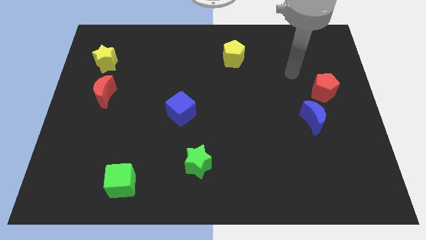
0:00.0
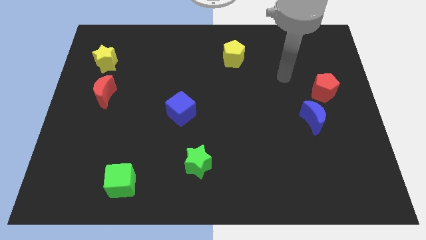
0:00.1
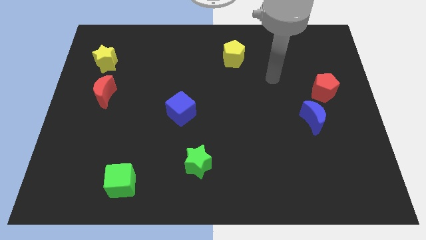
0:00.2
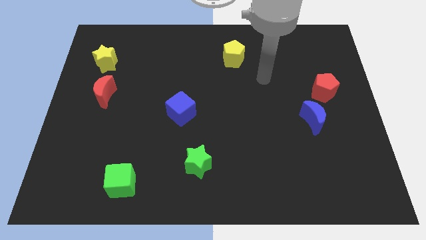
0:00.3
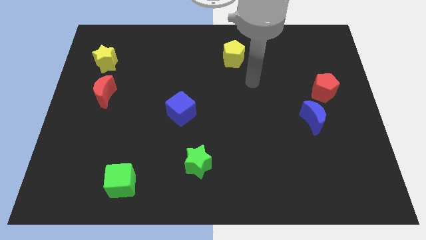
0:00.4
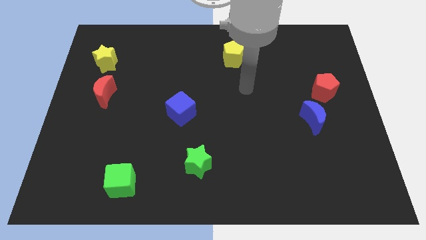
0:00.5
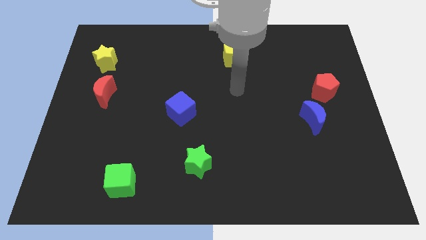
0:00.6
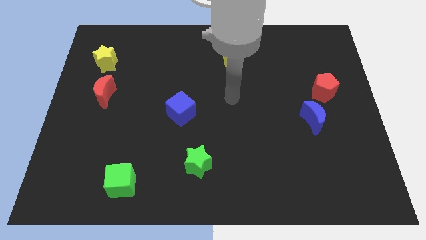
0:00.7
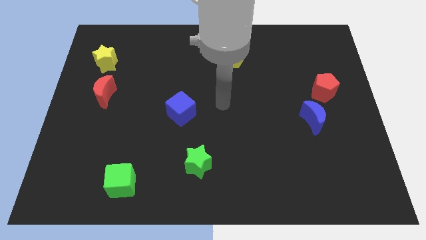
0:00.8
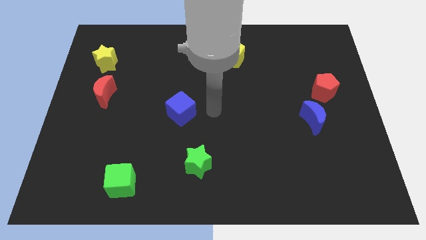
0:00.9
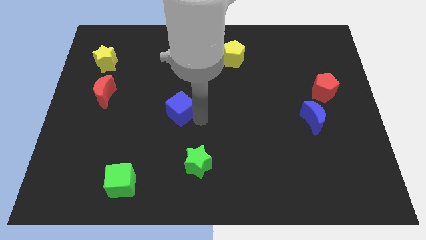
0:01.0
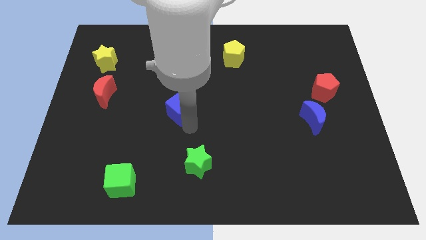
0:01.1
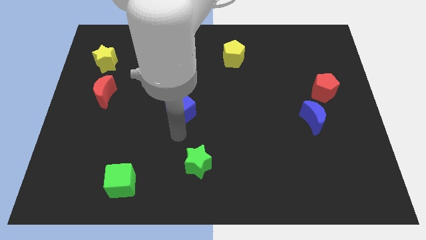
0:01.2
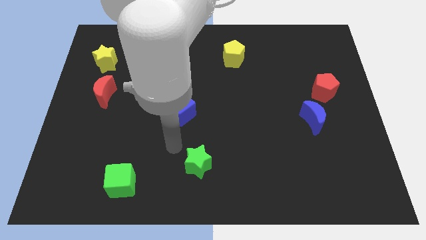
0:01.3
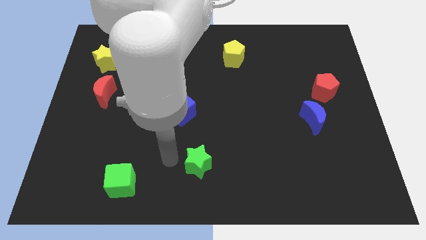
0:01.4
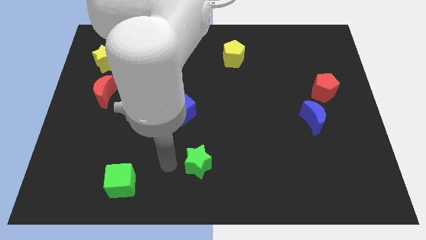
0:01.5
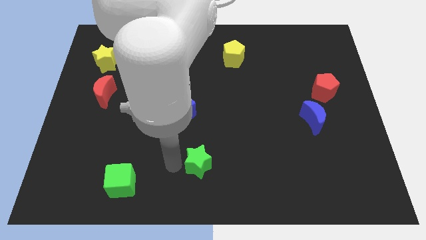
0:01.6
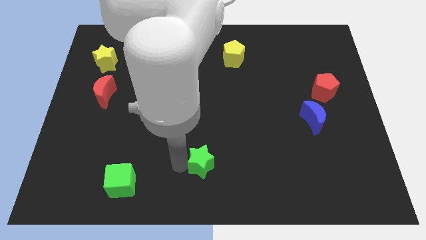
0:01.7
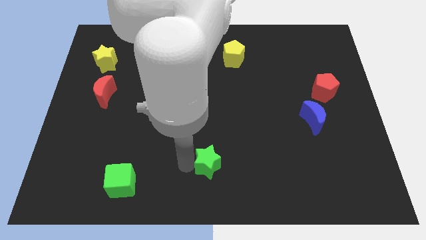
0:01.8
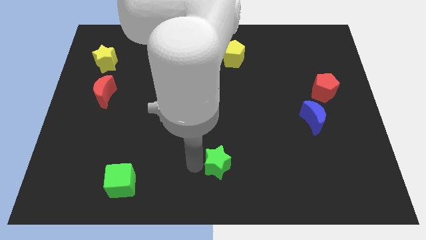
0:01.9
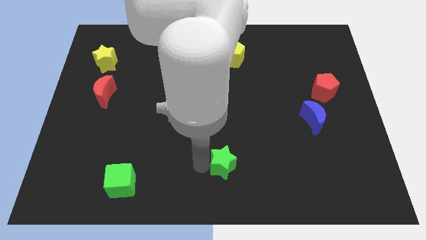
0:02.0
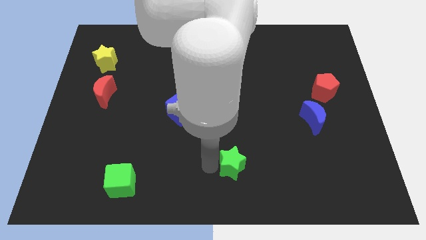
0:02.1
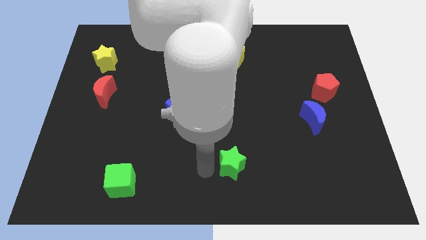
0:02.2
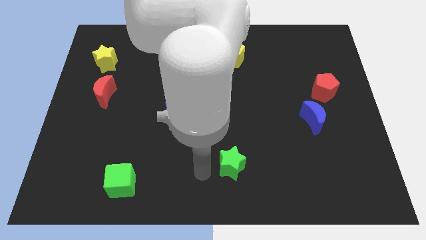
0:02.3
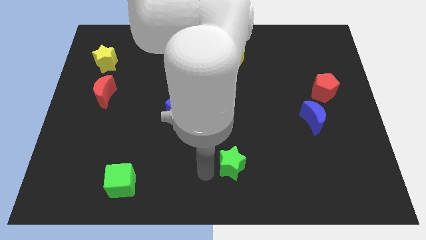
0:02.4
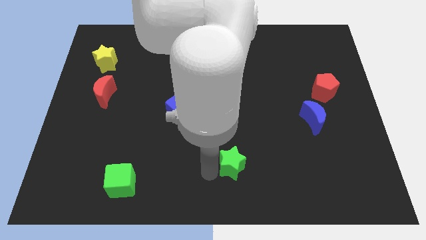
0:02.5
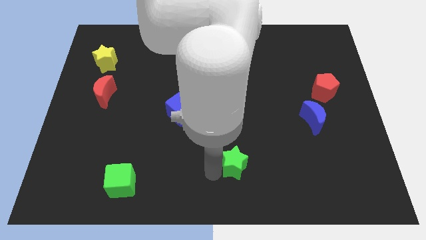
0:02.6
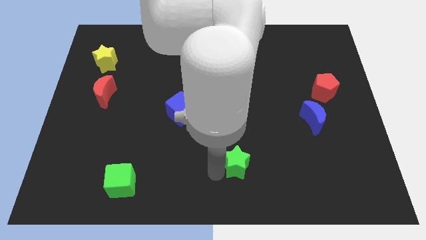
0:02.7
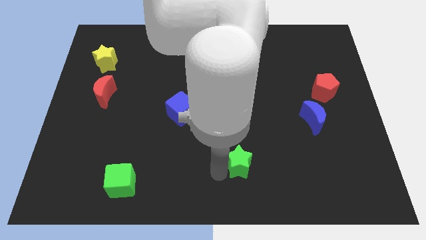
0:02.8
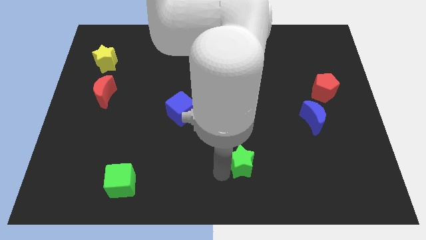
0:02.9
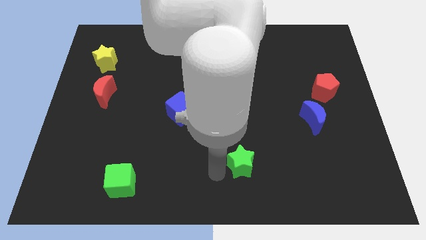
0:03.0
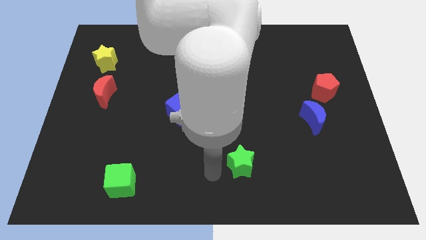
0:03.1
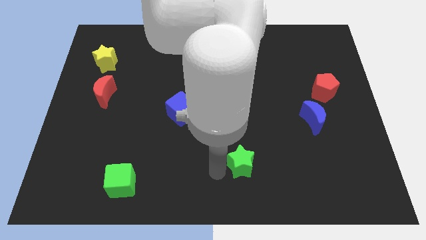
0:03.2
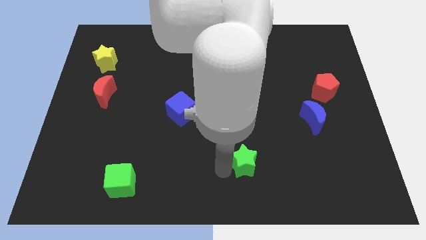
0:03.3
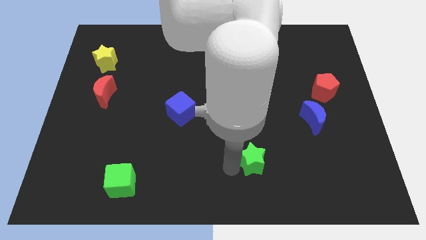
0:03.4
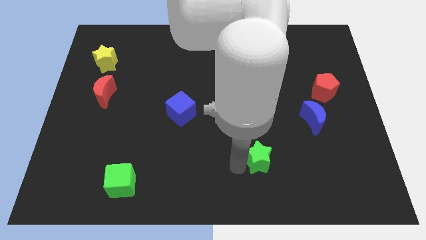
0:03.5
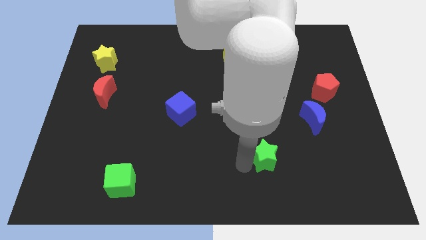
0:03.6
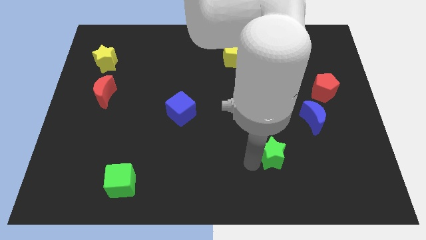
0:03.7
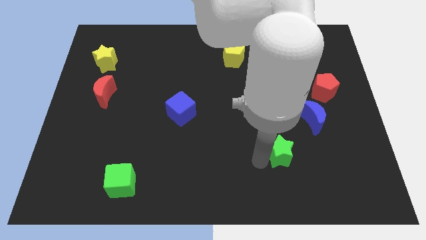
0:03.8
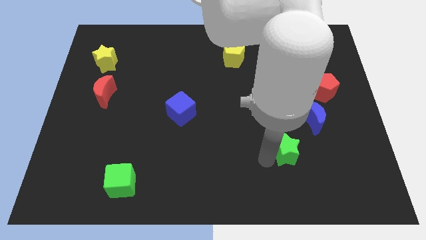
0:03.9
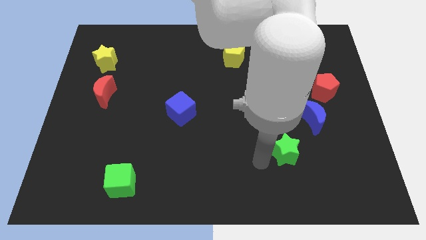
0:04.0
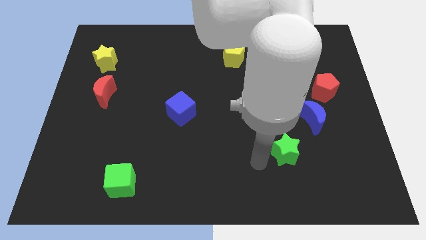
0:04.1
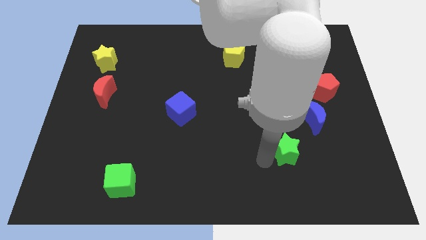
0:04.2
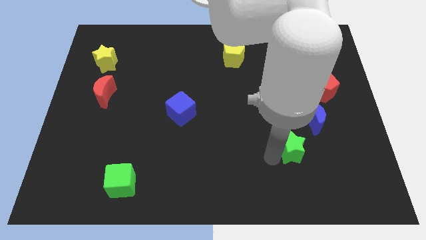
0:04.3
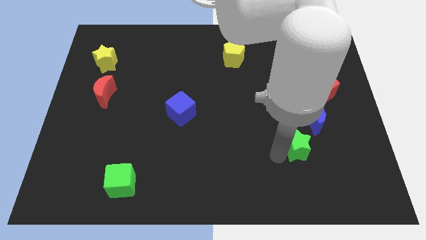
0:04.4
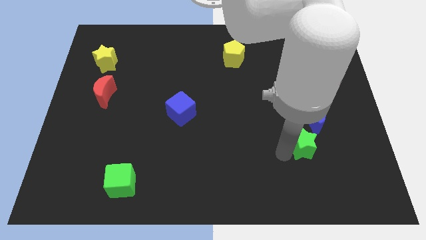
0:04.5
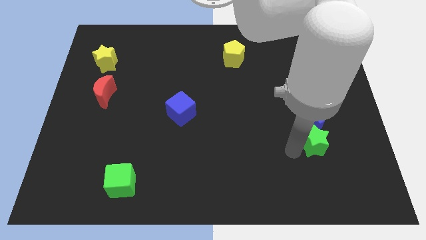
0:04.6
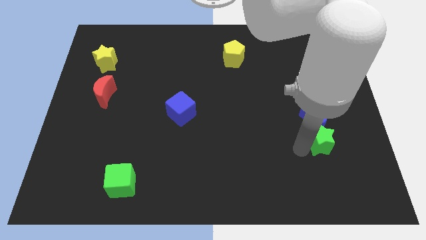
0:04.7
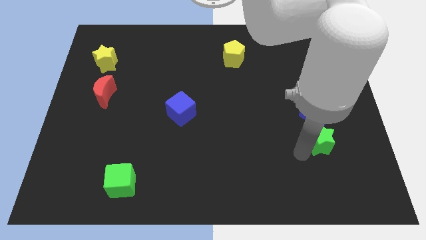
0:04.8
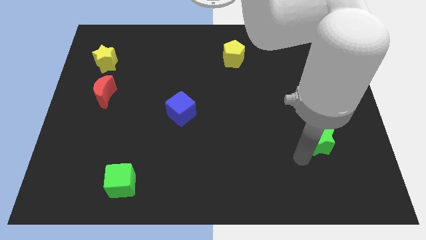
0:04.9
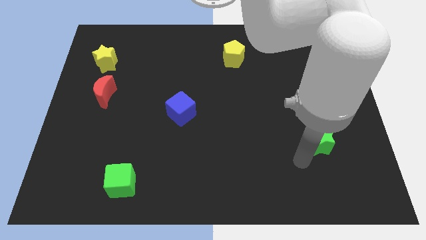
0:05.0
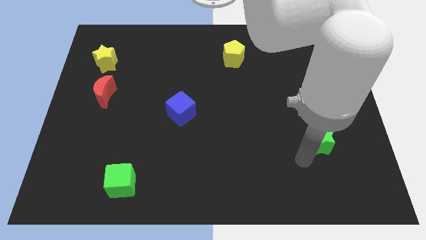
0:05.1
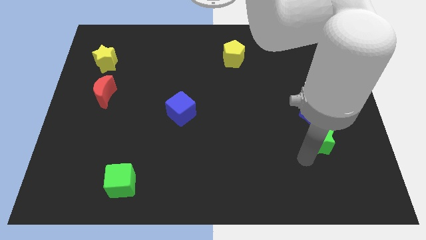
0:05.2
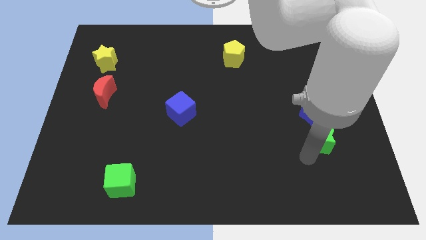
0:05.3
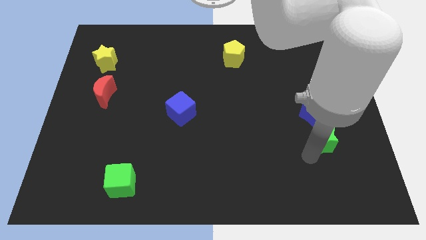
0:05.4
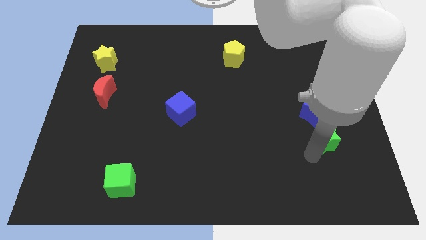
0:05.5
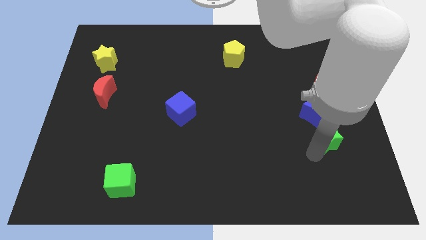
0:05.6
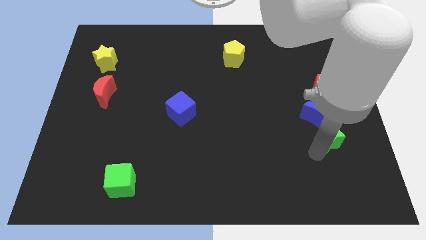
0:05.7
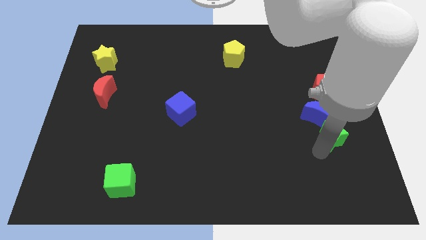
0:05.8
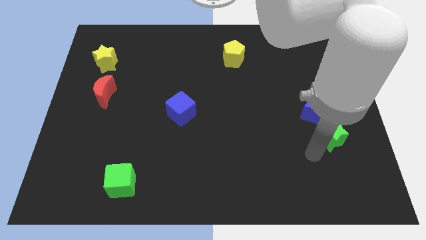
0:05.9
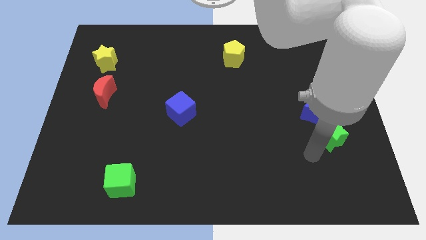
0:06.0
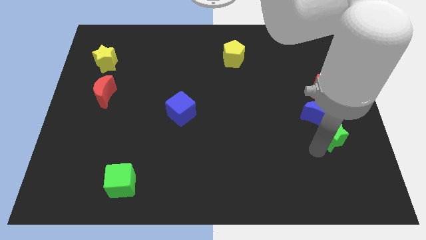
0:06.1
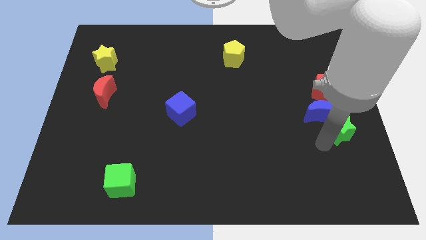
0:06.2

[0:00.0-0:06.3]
put the green star to the center right

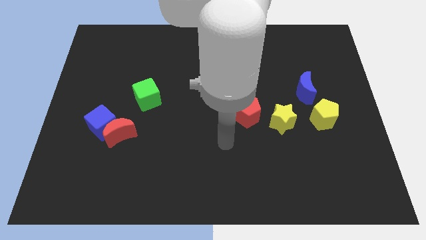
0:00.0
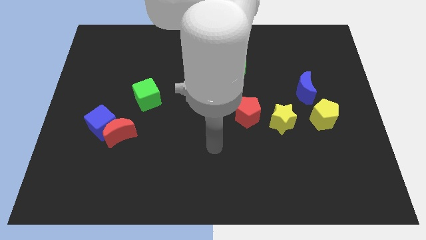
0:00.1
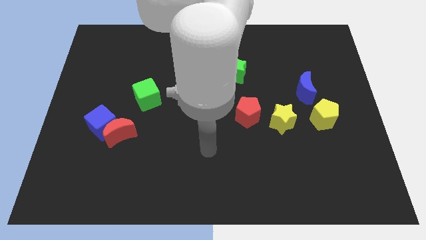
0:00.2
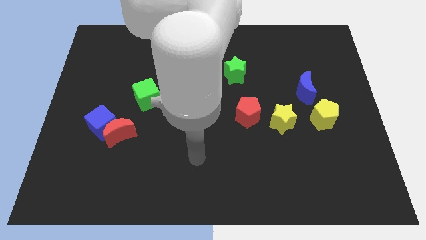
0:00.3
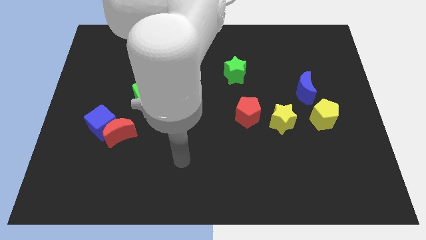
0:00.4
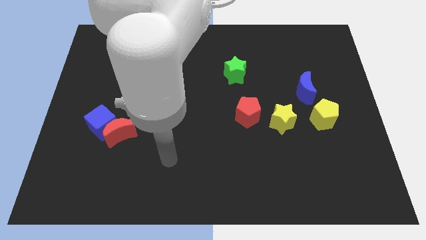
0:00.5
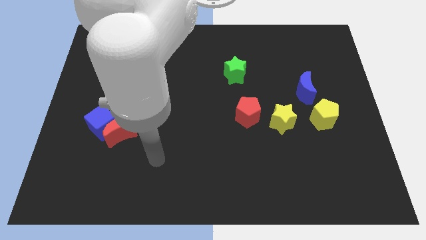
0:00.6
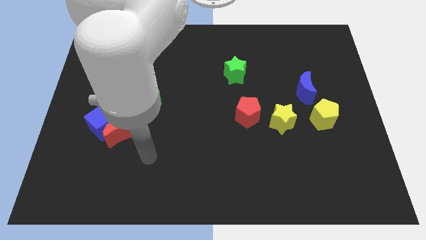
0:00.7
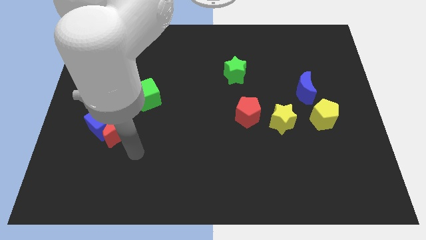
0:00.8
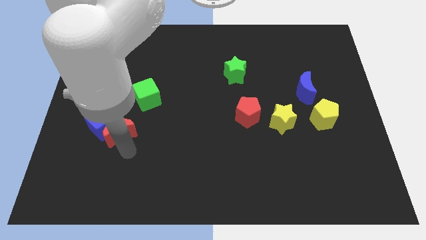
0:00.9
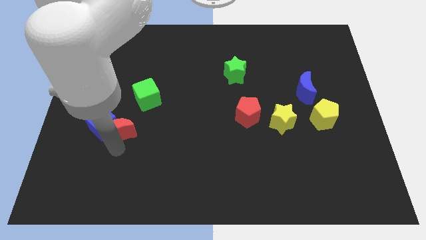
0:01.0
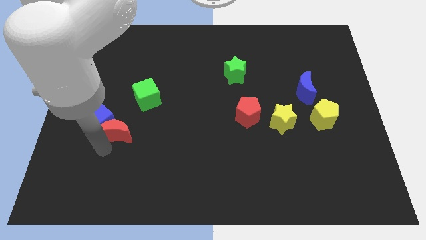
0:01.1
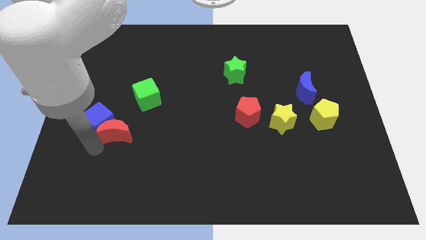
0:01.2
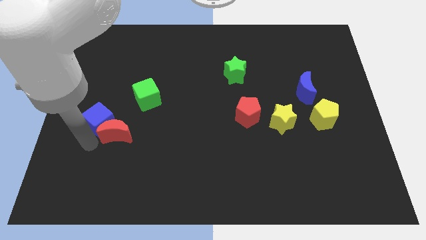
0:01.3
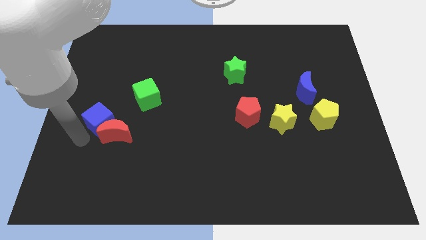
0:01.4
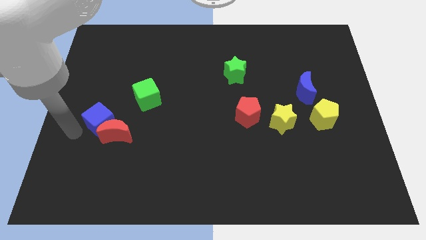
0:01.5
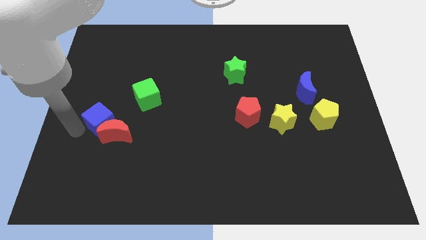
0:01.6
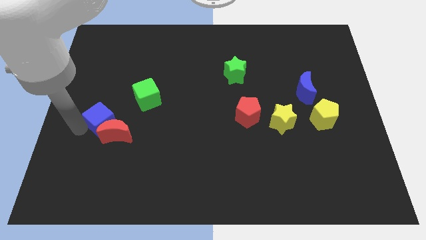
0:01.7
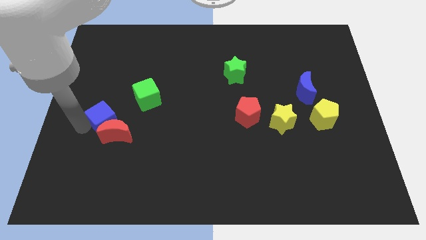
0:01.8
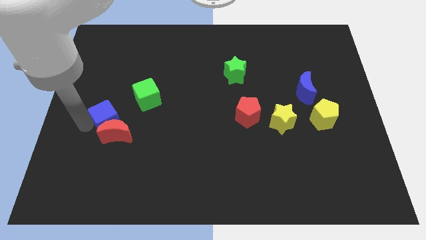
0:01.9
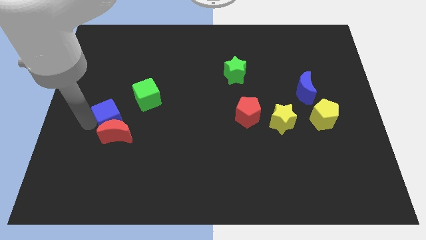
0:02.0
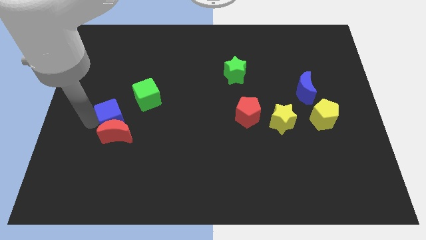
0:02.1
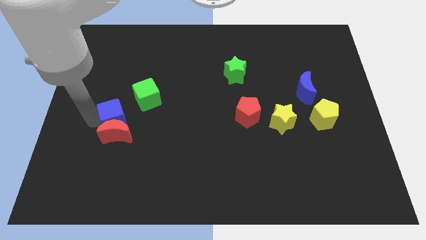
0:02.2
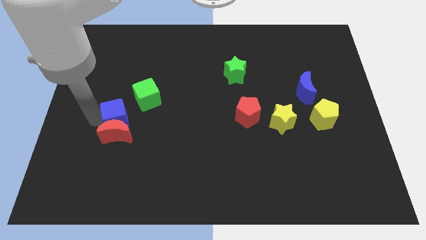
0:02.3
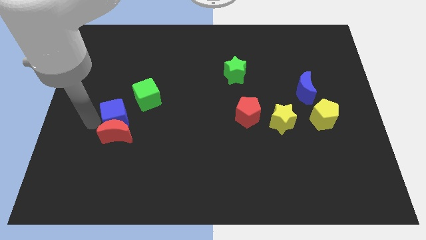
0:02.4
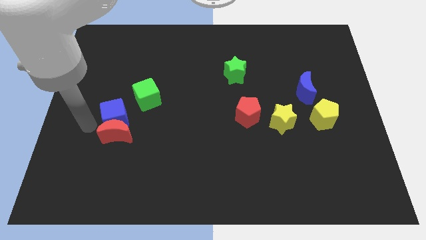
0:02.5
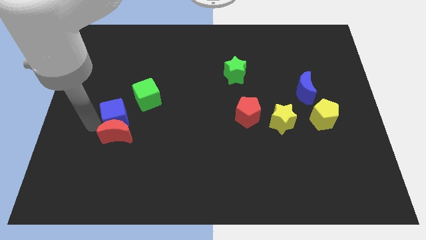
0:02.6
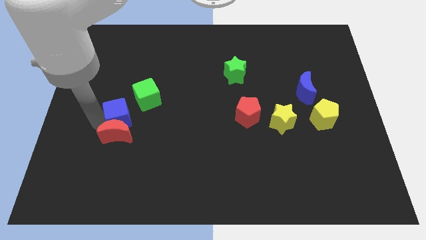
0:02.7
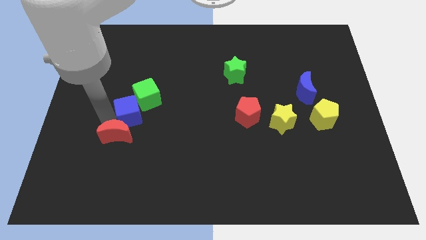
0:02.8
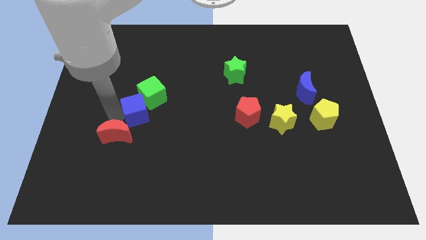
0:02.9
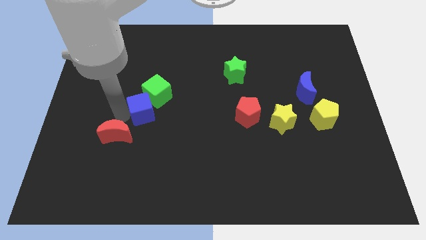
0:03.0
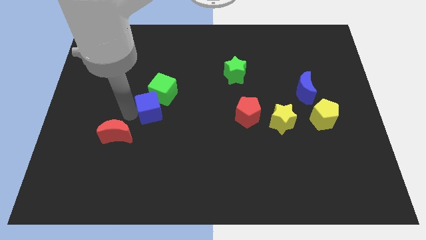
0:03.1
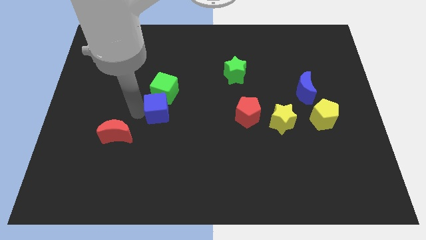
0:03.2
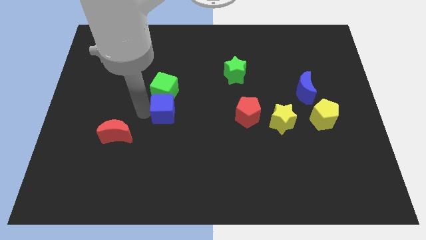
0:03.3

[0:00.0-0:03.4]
push the blue cube to the middle of the board
